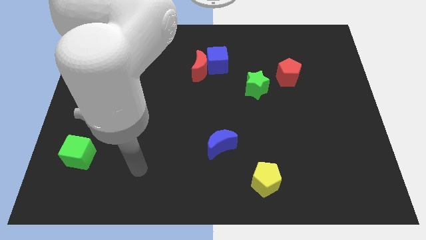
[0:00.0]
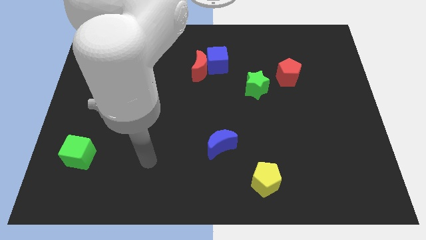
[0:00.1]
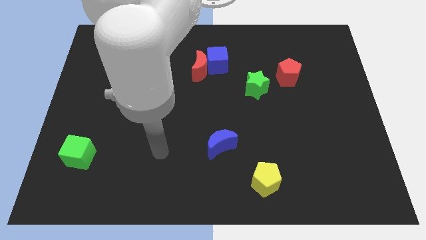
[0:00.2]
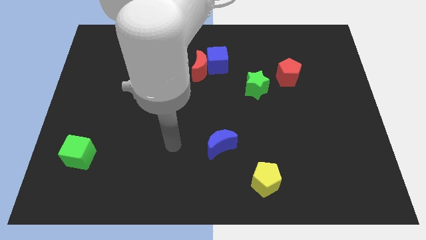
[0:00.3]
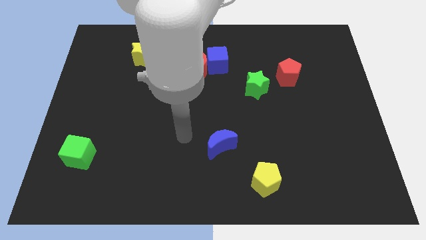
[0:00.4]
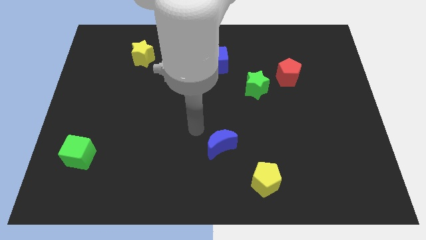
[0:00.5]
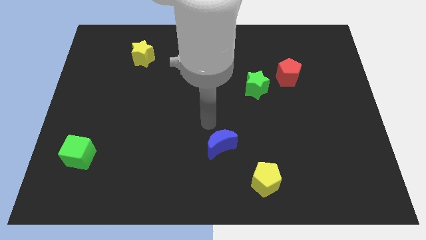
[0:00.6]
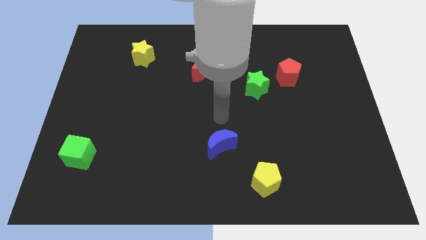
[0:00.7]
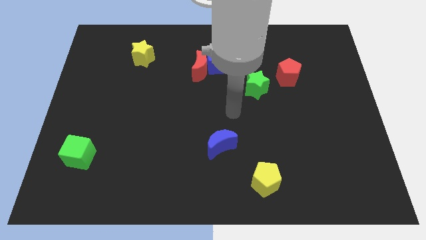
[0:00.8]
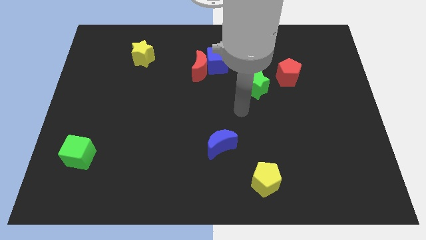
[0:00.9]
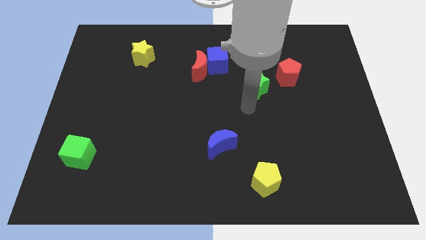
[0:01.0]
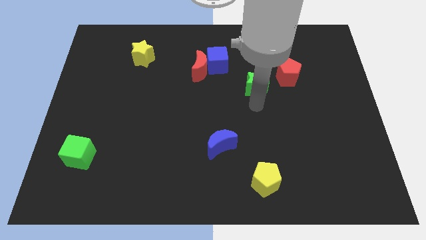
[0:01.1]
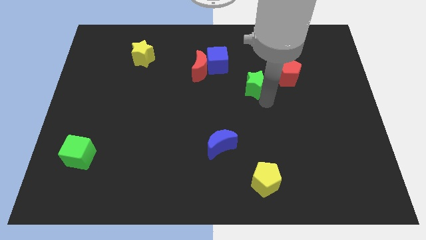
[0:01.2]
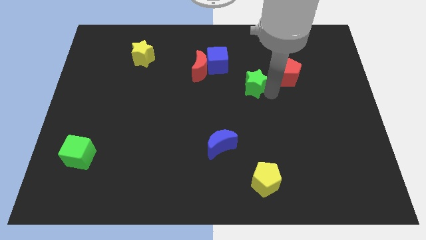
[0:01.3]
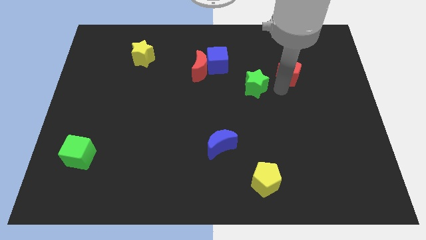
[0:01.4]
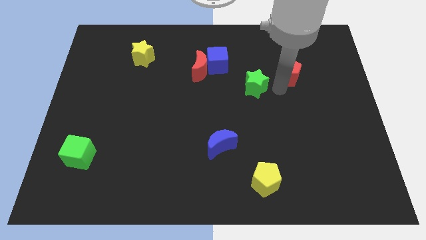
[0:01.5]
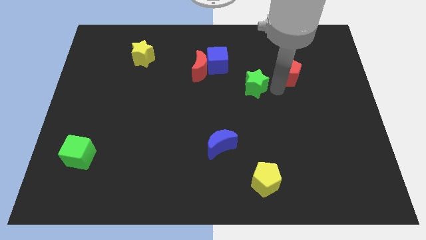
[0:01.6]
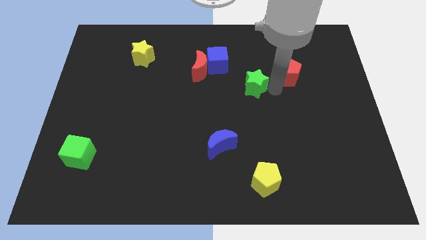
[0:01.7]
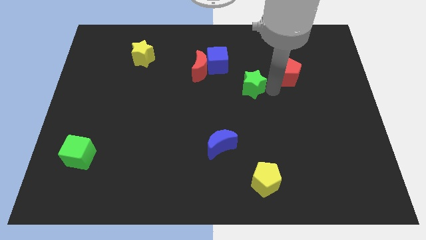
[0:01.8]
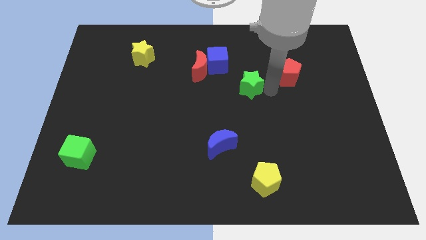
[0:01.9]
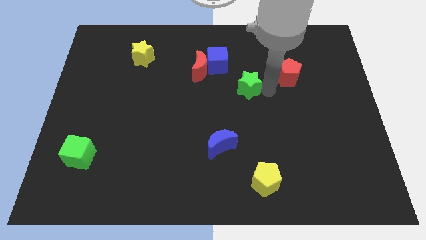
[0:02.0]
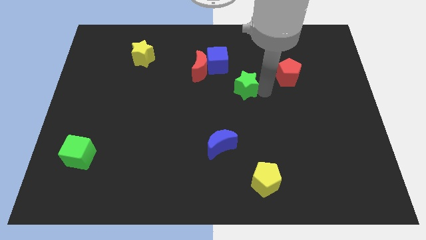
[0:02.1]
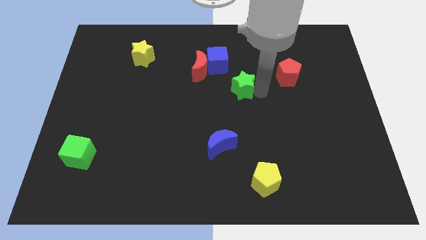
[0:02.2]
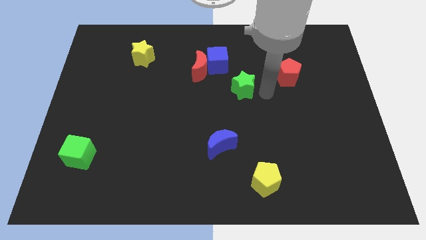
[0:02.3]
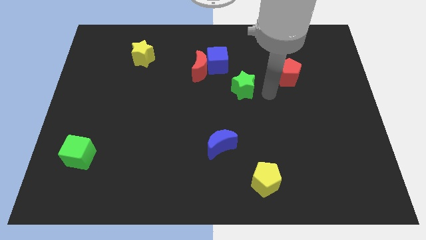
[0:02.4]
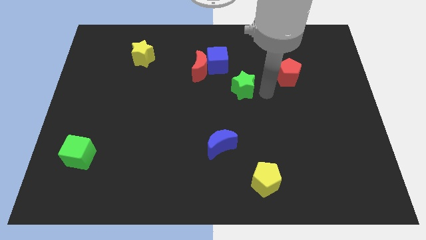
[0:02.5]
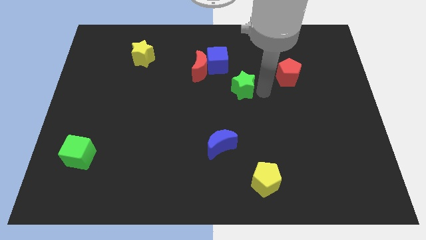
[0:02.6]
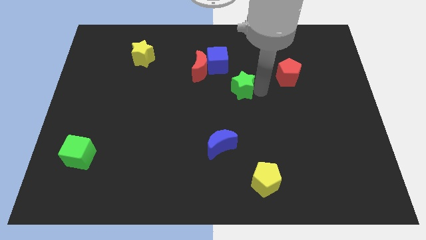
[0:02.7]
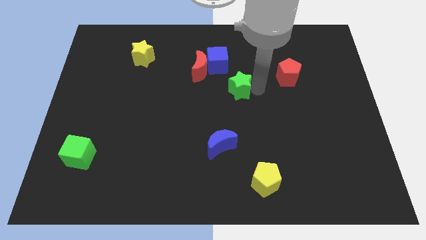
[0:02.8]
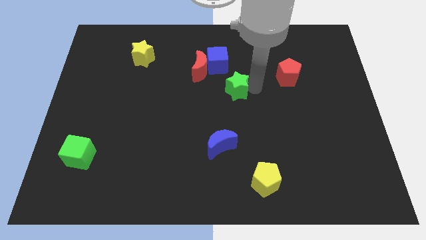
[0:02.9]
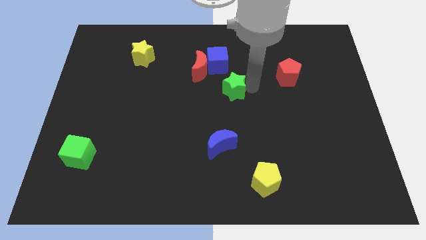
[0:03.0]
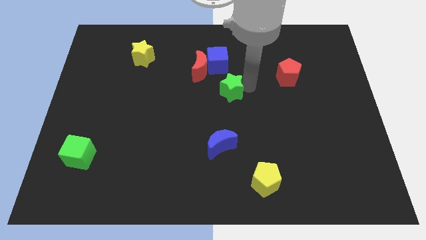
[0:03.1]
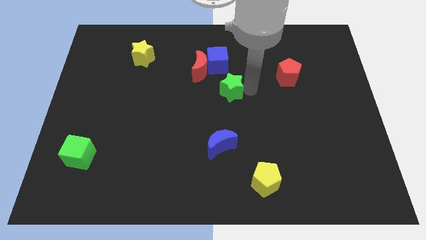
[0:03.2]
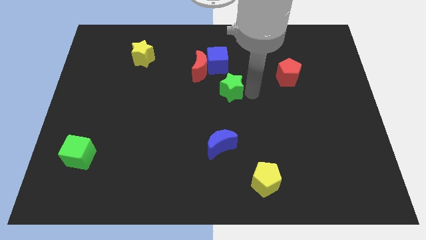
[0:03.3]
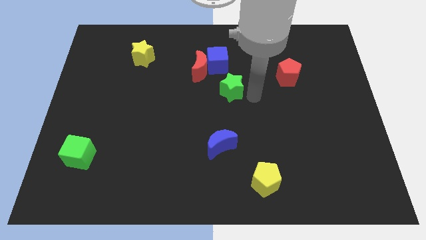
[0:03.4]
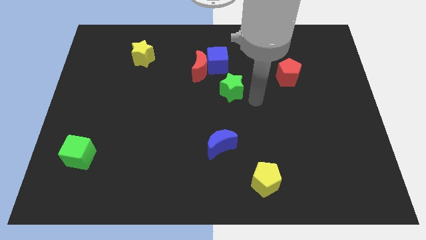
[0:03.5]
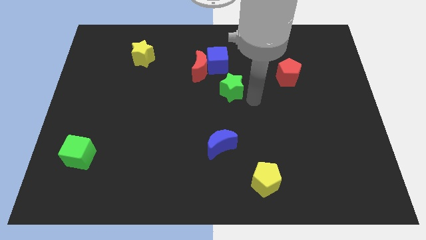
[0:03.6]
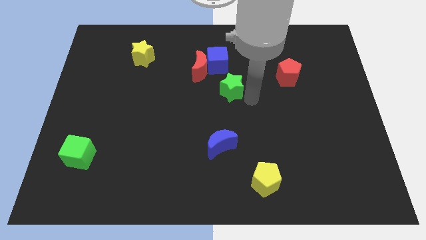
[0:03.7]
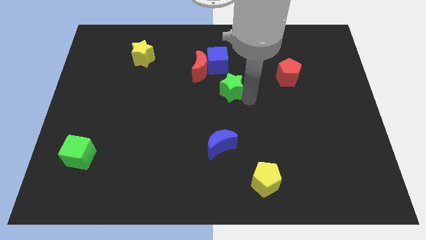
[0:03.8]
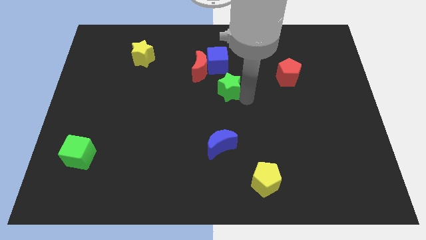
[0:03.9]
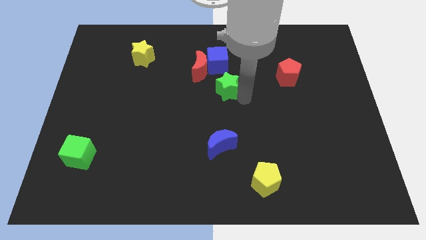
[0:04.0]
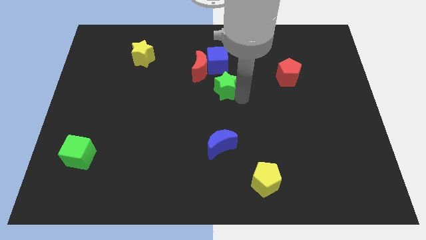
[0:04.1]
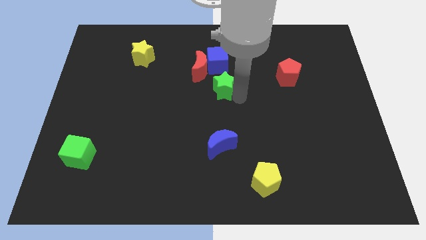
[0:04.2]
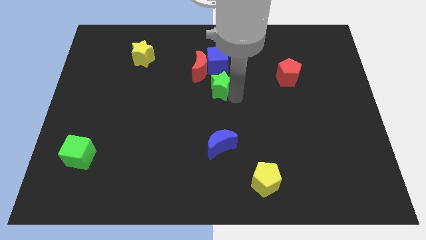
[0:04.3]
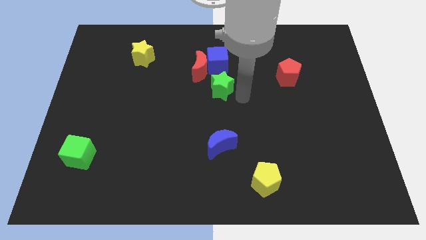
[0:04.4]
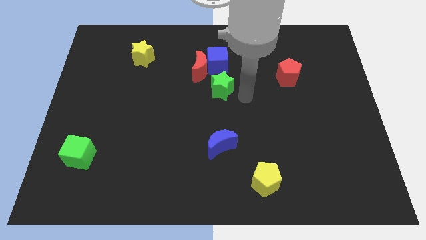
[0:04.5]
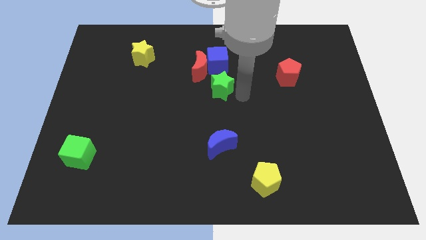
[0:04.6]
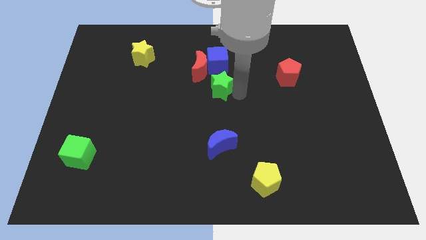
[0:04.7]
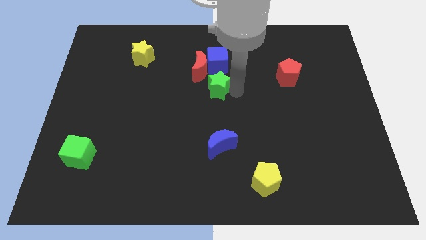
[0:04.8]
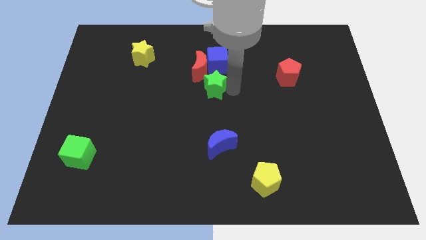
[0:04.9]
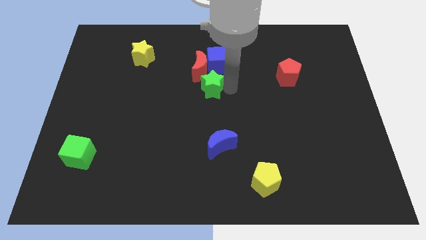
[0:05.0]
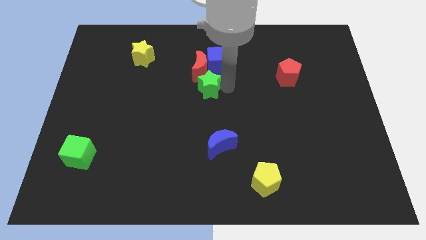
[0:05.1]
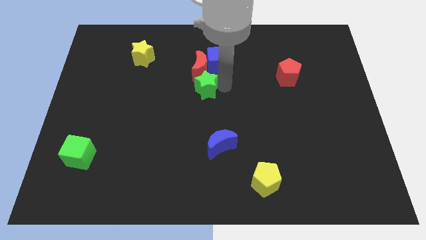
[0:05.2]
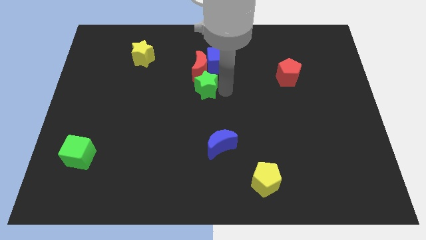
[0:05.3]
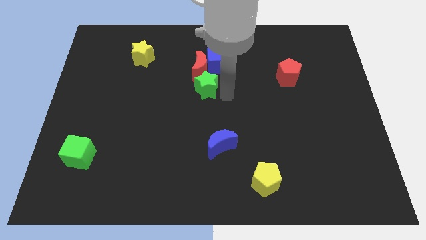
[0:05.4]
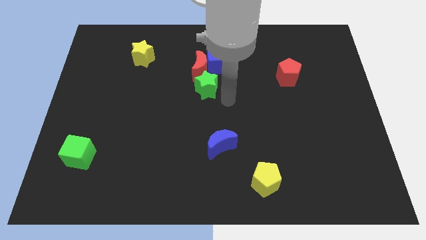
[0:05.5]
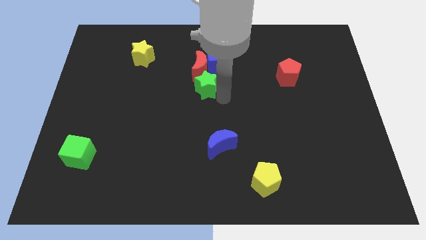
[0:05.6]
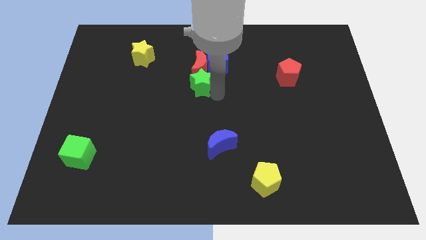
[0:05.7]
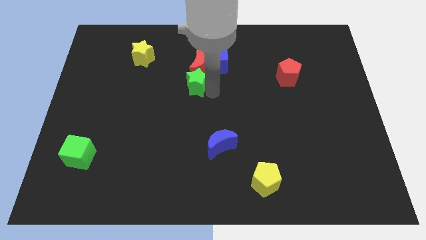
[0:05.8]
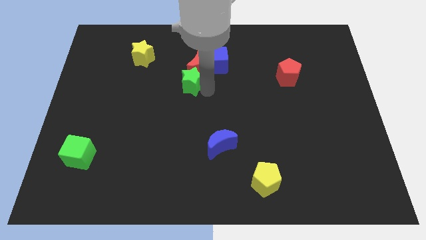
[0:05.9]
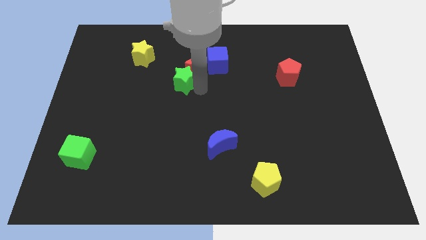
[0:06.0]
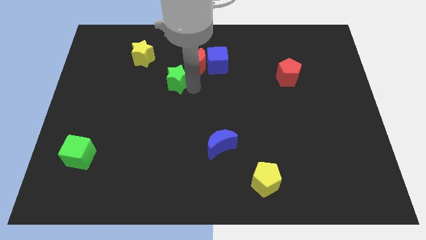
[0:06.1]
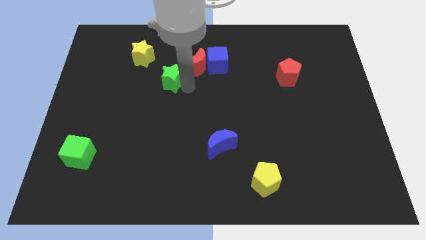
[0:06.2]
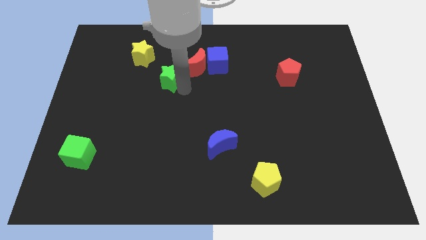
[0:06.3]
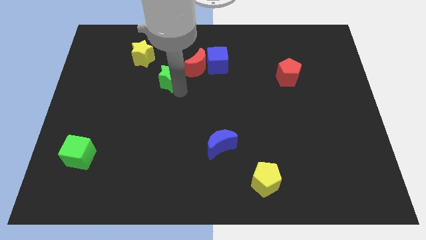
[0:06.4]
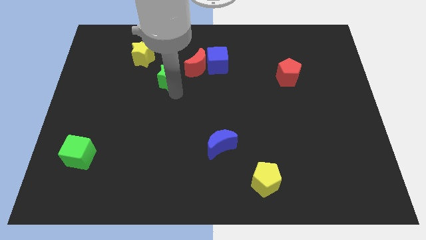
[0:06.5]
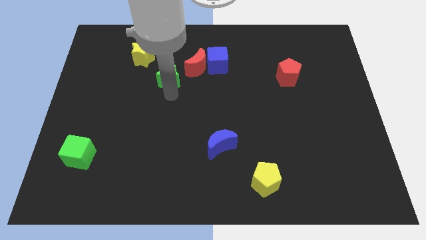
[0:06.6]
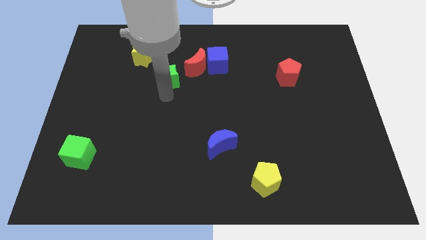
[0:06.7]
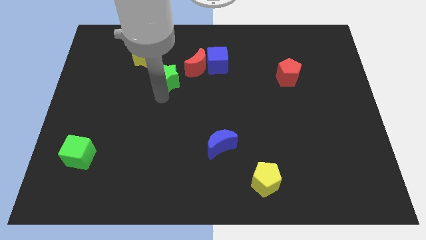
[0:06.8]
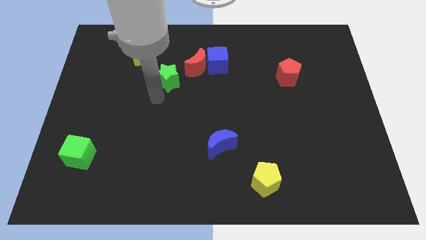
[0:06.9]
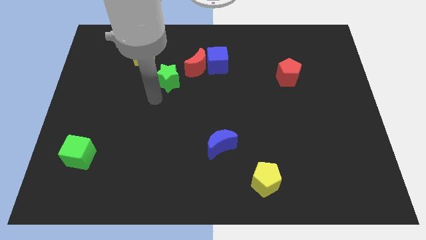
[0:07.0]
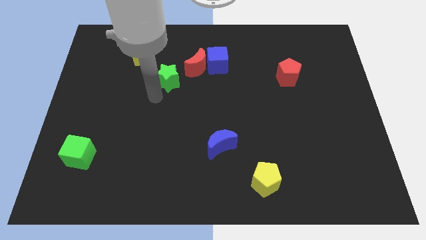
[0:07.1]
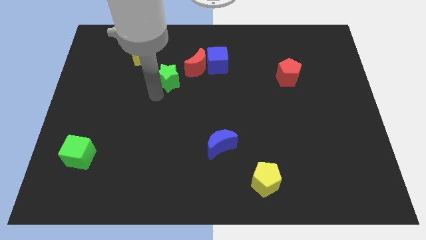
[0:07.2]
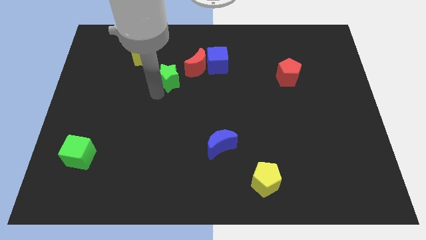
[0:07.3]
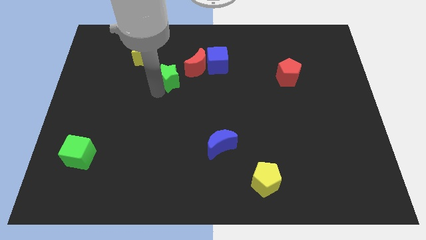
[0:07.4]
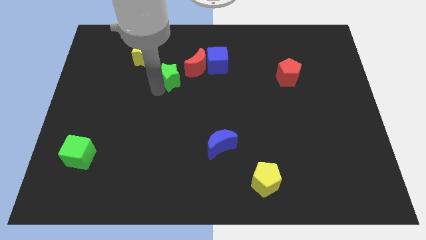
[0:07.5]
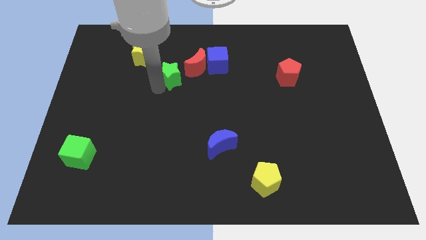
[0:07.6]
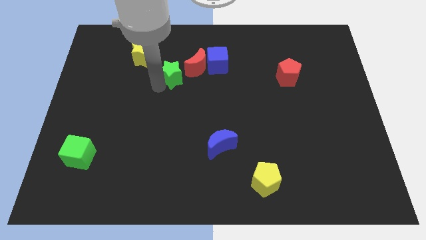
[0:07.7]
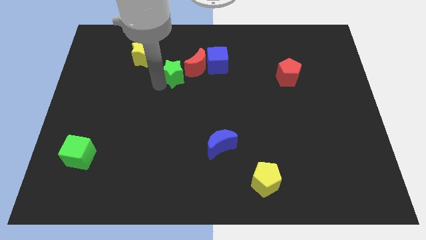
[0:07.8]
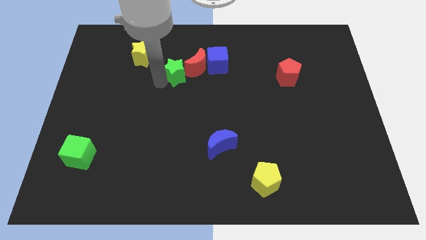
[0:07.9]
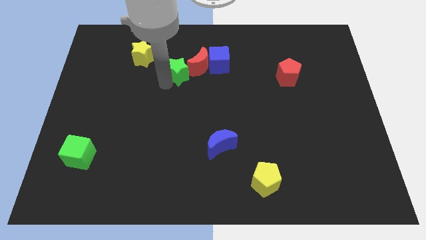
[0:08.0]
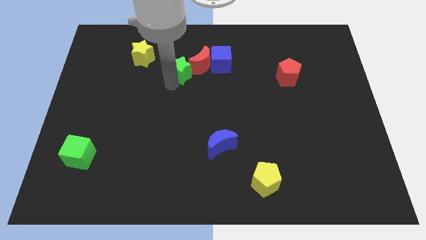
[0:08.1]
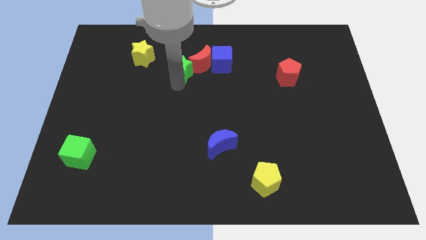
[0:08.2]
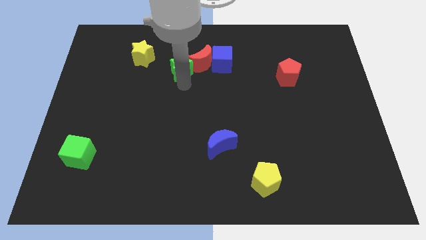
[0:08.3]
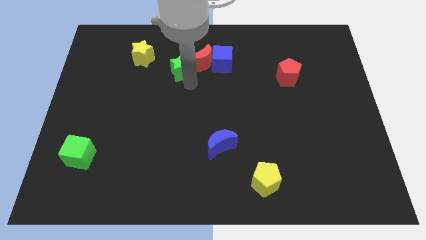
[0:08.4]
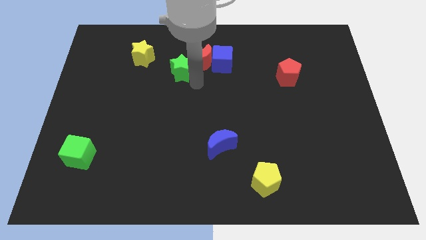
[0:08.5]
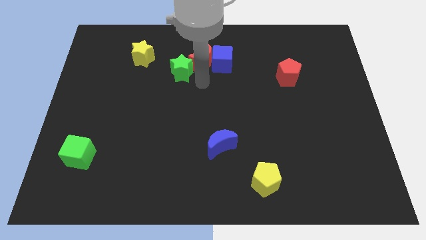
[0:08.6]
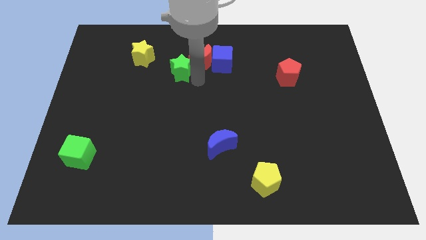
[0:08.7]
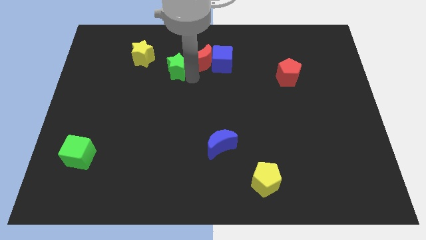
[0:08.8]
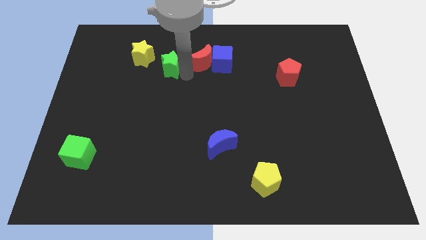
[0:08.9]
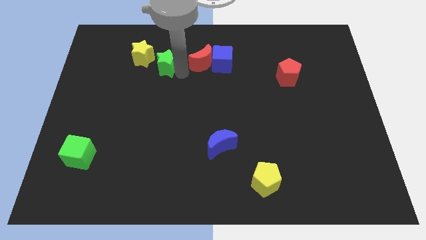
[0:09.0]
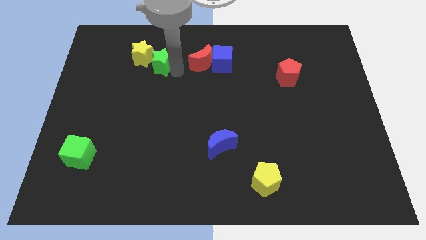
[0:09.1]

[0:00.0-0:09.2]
move the green star to the yellow star
